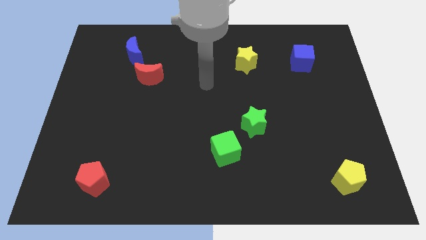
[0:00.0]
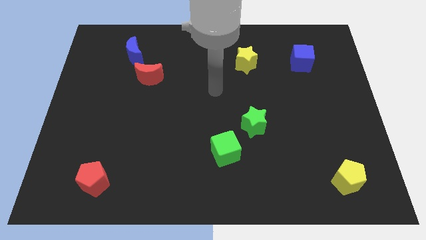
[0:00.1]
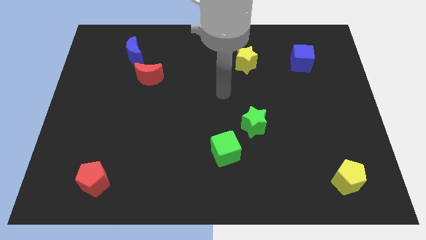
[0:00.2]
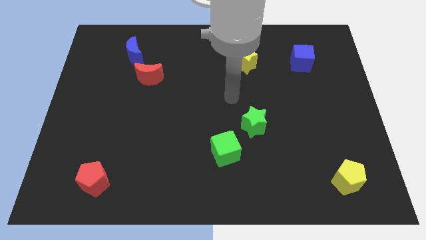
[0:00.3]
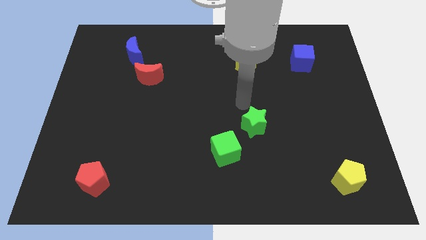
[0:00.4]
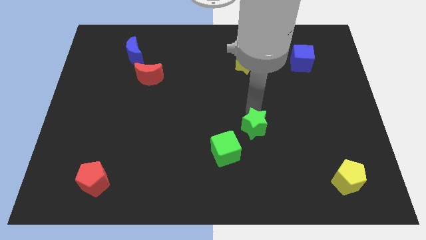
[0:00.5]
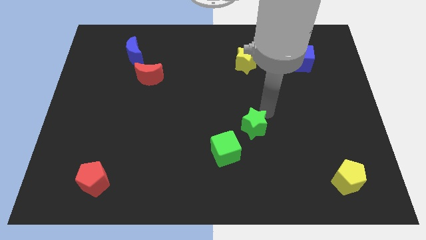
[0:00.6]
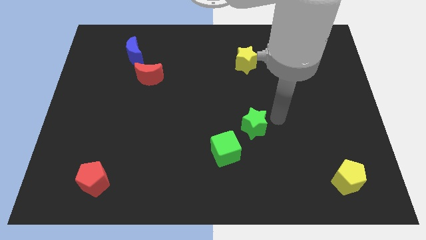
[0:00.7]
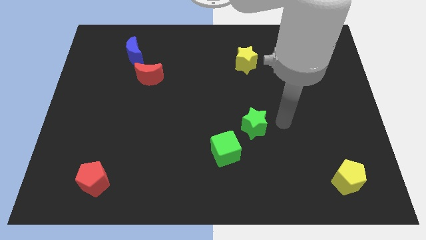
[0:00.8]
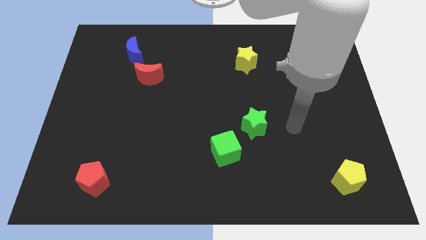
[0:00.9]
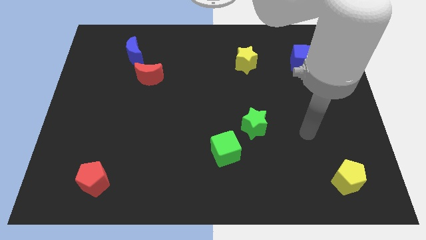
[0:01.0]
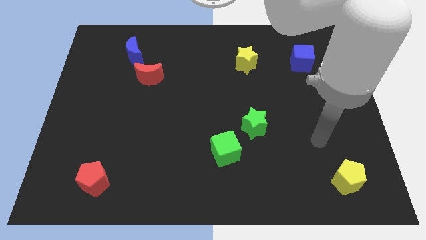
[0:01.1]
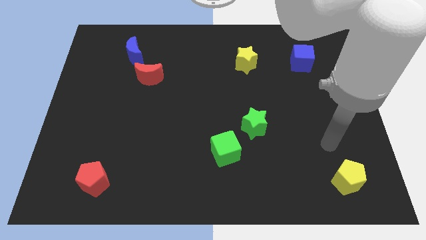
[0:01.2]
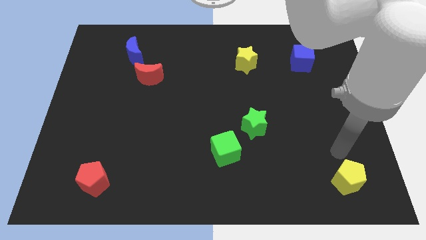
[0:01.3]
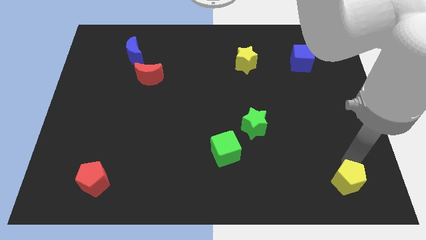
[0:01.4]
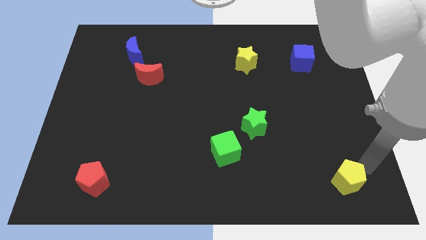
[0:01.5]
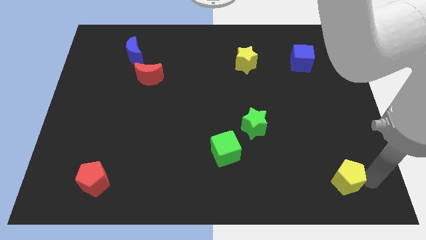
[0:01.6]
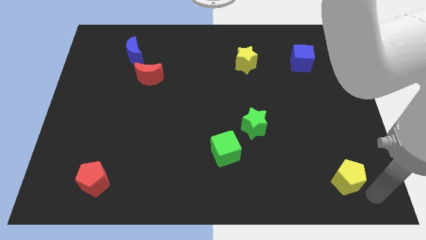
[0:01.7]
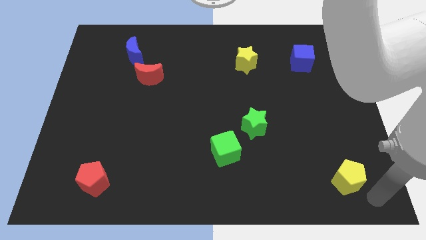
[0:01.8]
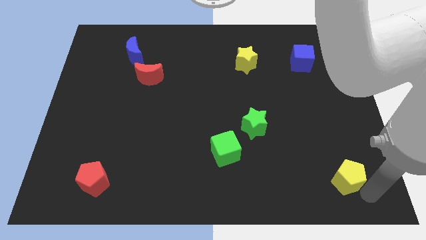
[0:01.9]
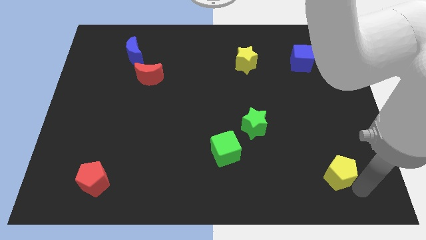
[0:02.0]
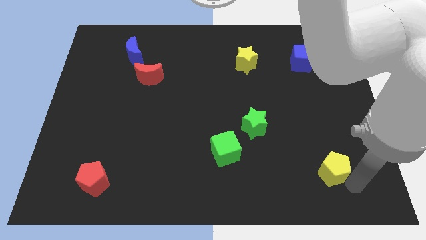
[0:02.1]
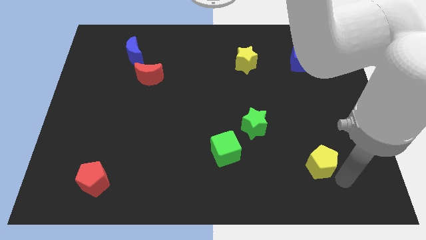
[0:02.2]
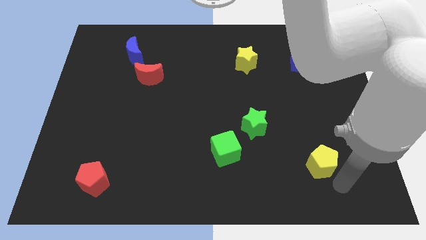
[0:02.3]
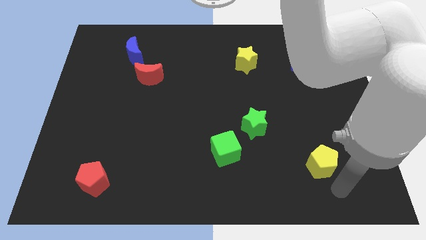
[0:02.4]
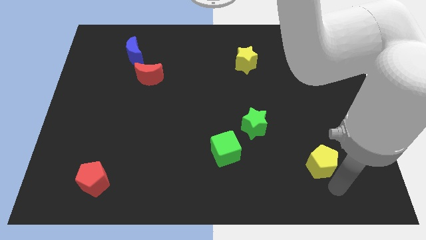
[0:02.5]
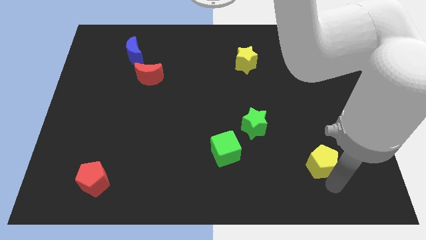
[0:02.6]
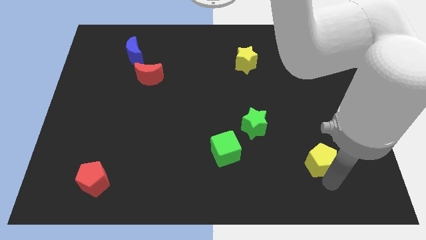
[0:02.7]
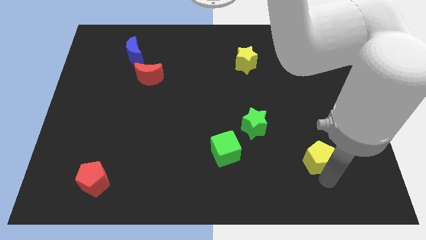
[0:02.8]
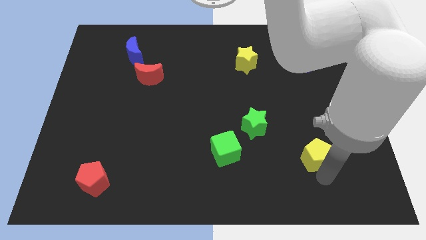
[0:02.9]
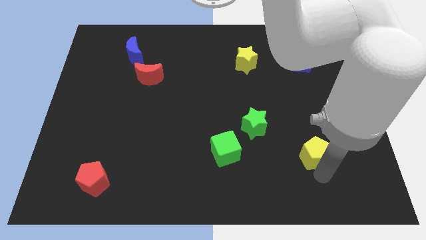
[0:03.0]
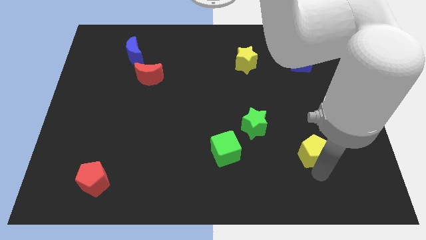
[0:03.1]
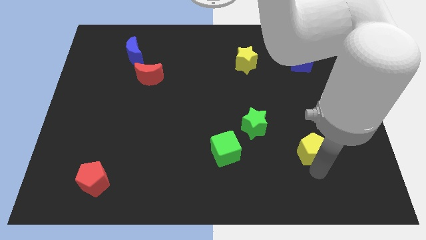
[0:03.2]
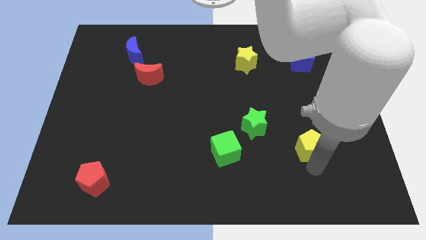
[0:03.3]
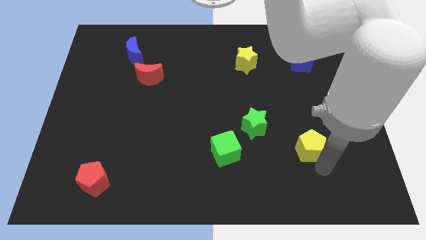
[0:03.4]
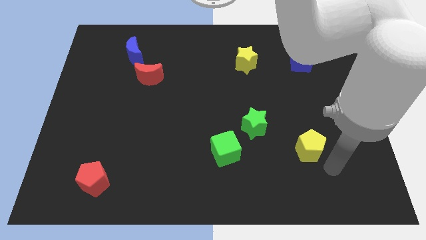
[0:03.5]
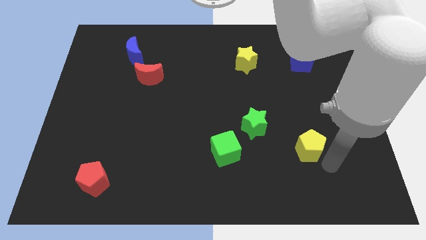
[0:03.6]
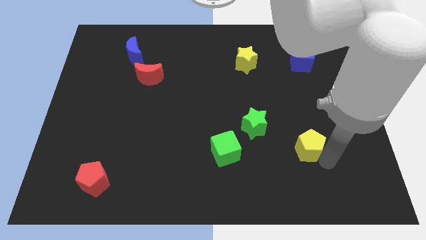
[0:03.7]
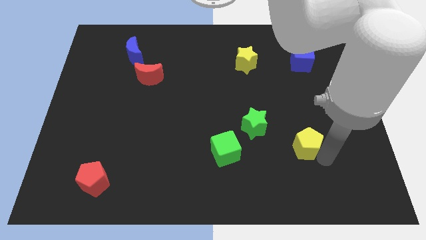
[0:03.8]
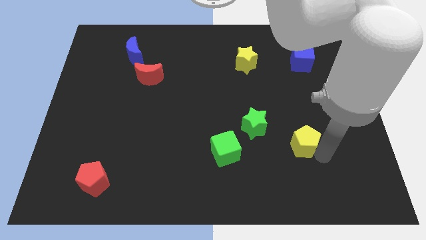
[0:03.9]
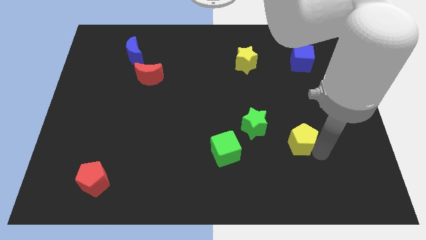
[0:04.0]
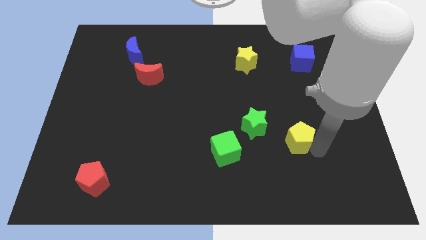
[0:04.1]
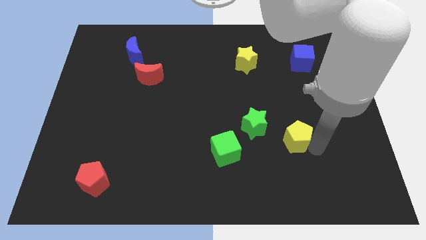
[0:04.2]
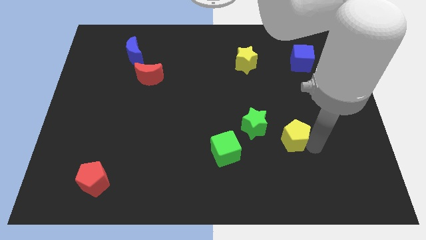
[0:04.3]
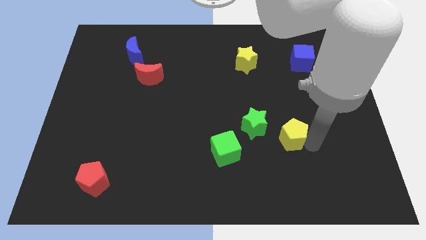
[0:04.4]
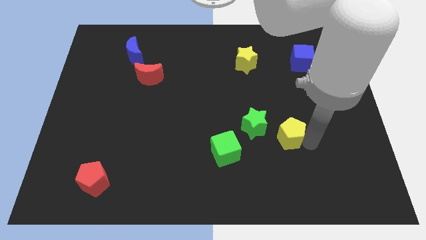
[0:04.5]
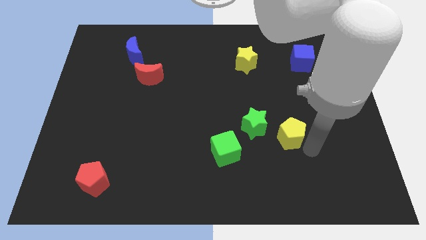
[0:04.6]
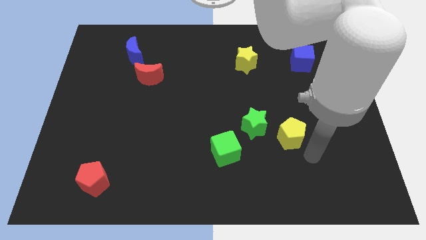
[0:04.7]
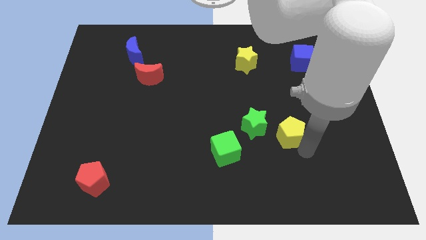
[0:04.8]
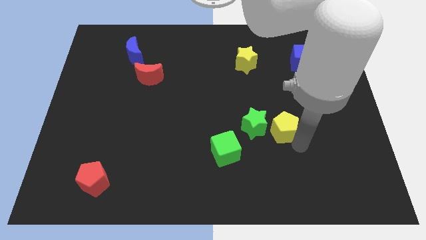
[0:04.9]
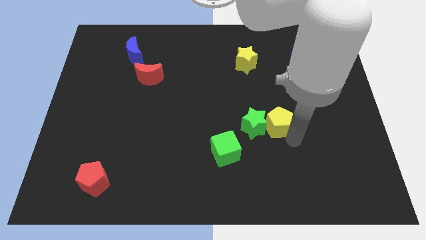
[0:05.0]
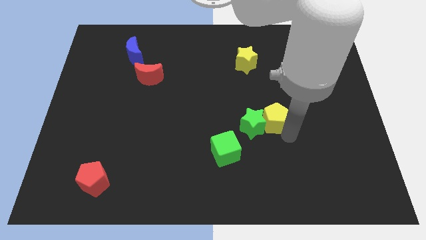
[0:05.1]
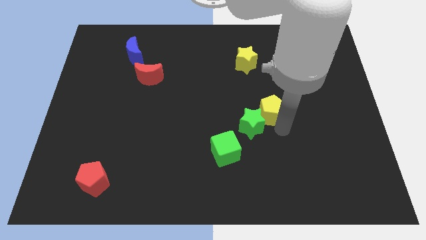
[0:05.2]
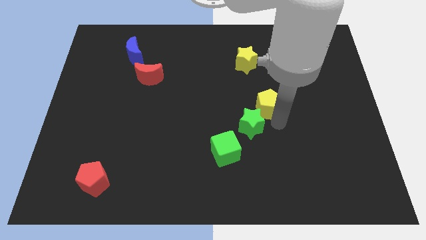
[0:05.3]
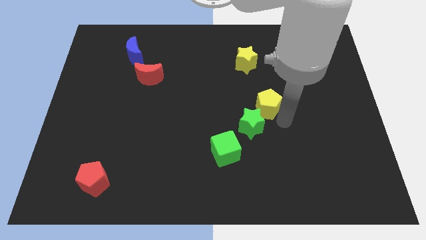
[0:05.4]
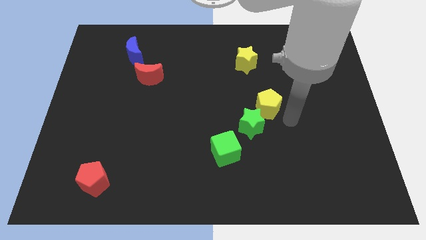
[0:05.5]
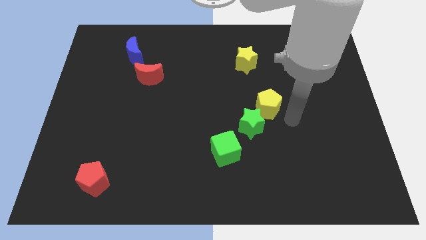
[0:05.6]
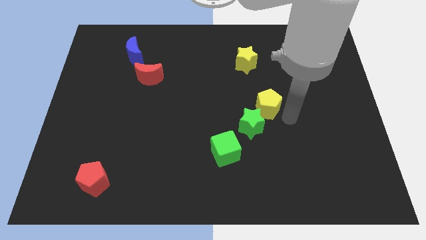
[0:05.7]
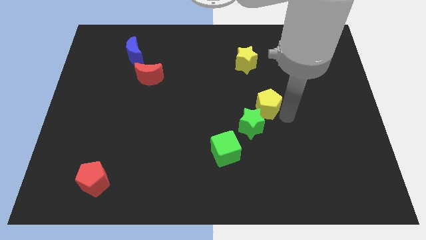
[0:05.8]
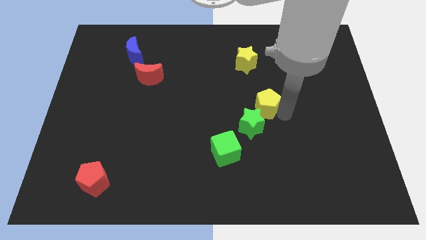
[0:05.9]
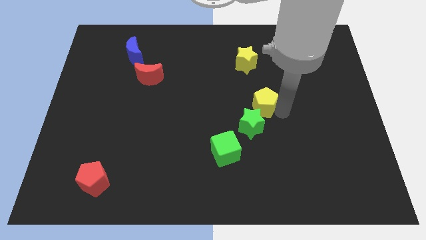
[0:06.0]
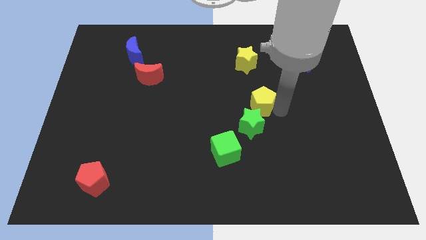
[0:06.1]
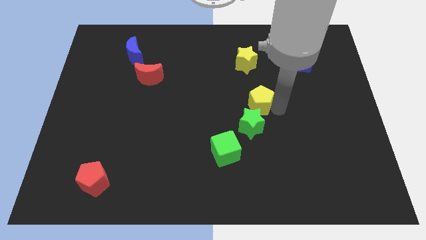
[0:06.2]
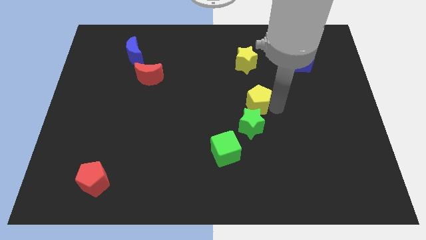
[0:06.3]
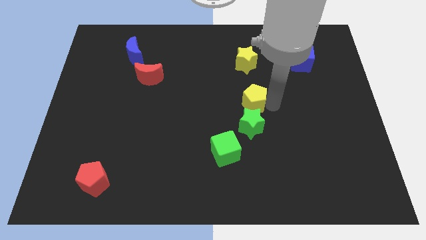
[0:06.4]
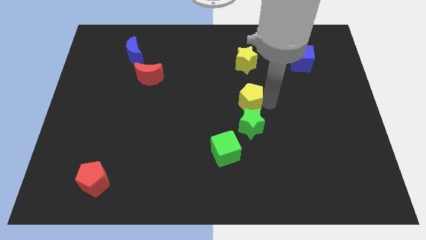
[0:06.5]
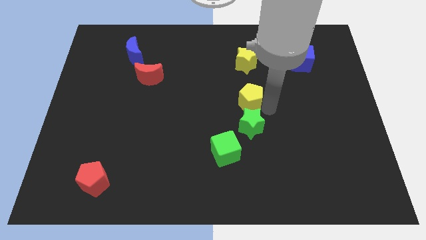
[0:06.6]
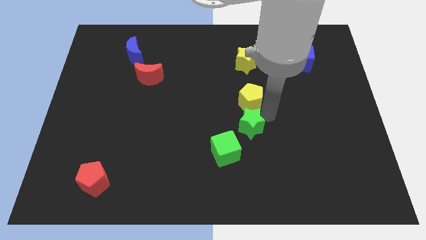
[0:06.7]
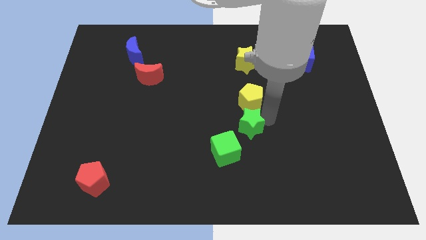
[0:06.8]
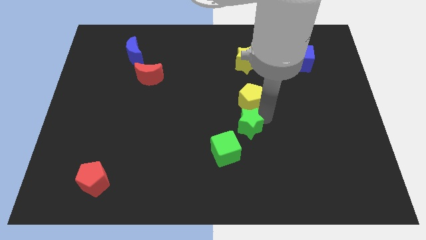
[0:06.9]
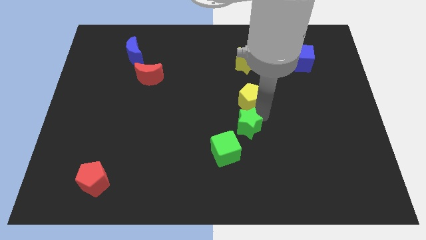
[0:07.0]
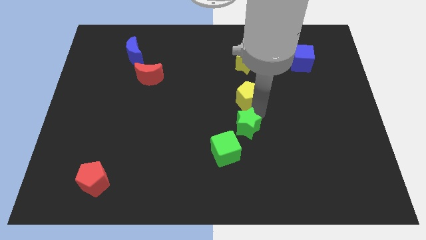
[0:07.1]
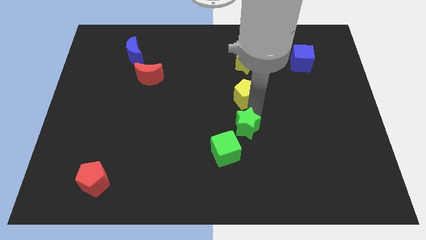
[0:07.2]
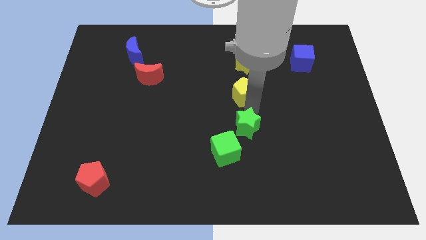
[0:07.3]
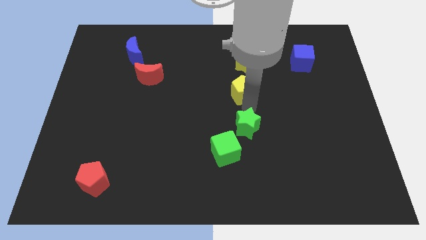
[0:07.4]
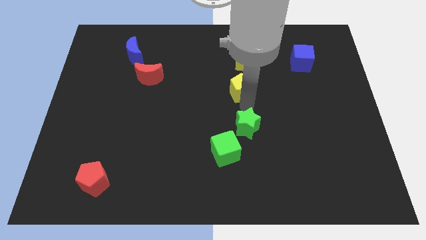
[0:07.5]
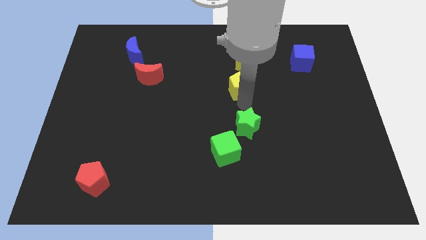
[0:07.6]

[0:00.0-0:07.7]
push the yellow pentagon diagonally down and to the left of the yellow star

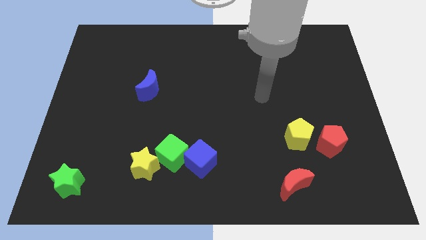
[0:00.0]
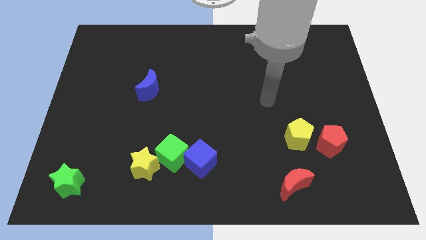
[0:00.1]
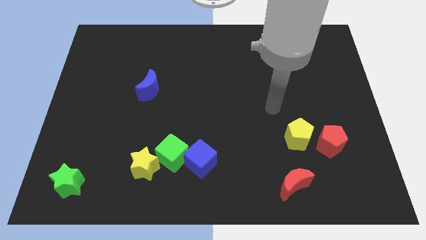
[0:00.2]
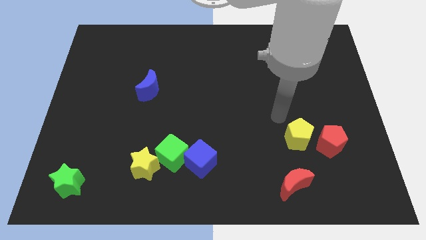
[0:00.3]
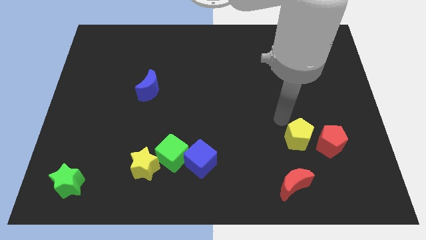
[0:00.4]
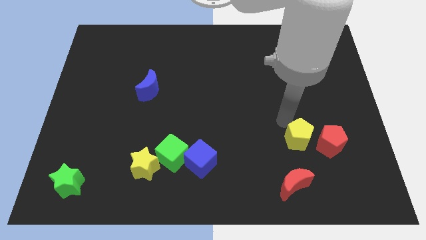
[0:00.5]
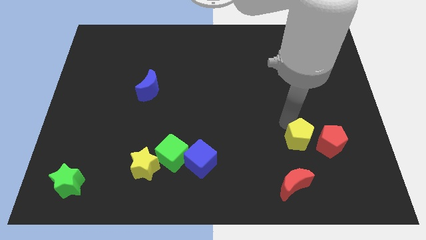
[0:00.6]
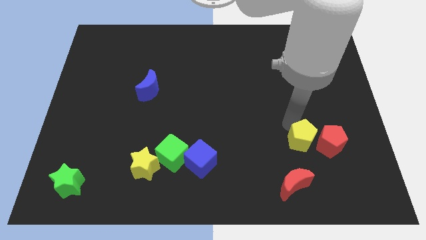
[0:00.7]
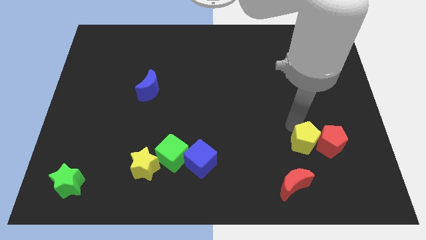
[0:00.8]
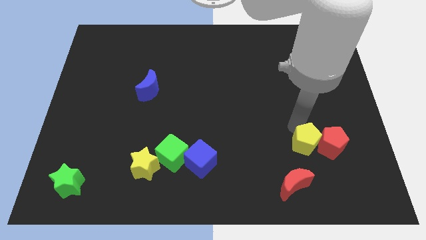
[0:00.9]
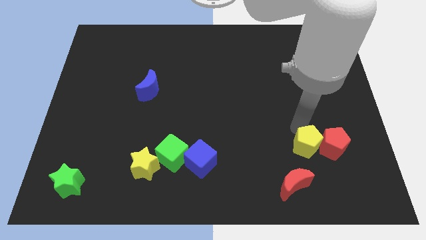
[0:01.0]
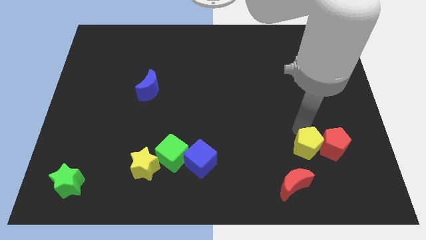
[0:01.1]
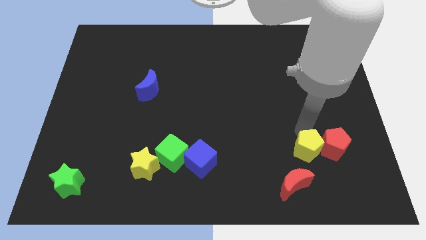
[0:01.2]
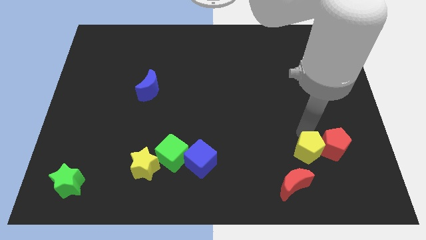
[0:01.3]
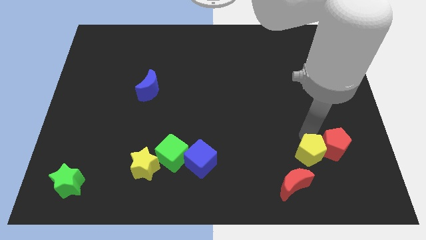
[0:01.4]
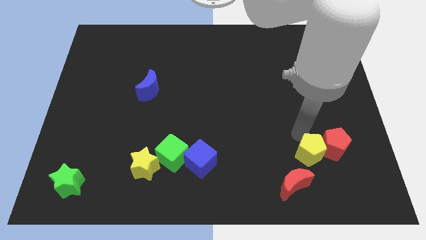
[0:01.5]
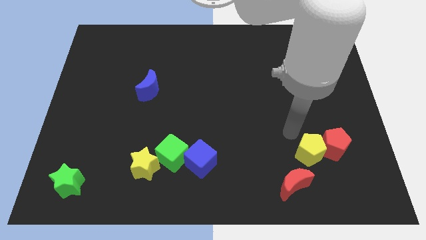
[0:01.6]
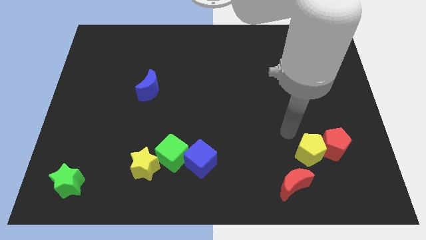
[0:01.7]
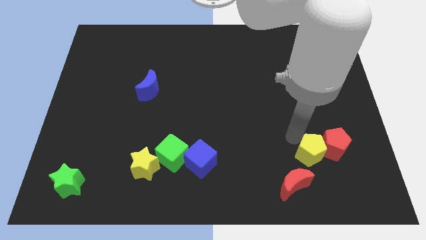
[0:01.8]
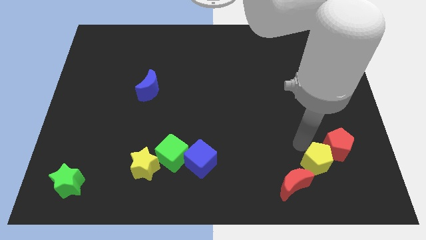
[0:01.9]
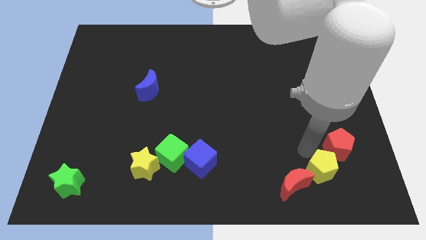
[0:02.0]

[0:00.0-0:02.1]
move the yellow pentagon to the right side of the red moon
